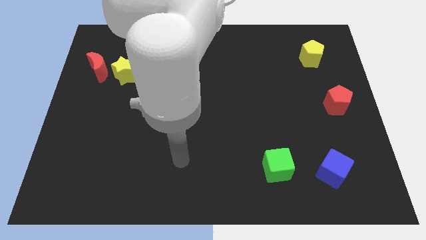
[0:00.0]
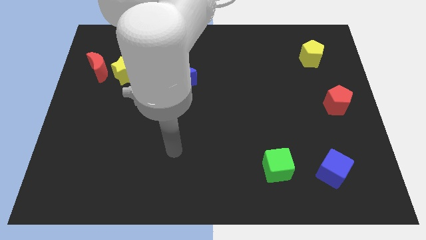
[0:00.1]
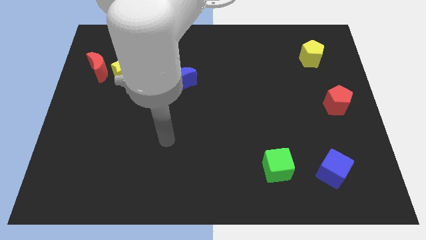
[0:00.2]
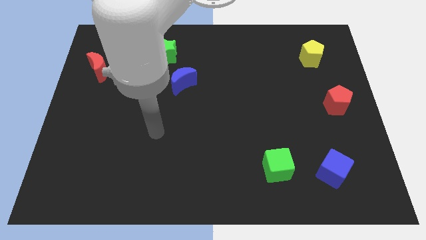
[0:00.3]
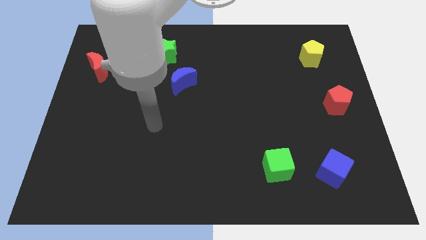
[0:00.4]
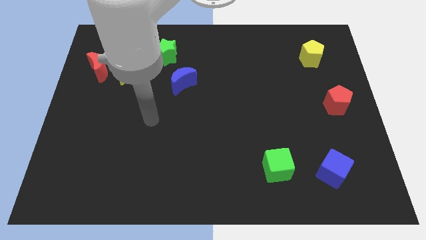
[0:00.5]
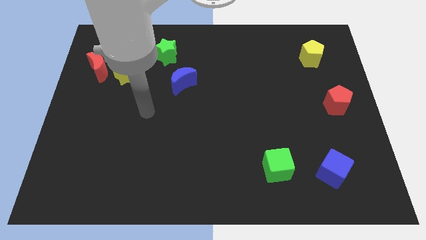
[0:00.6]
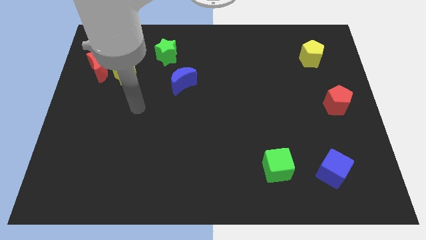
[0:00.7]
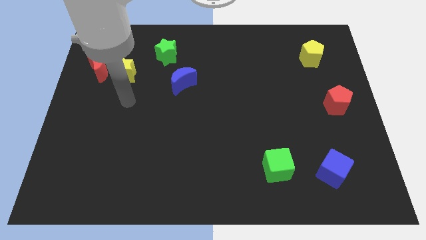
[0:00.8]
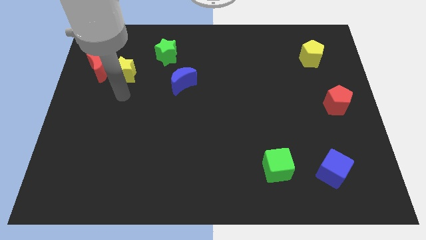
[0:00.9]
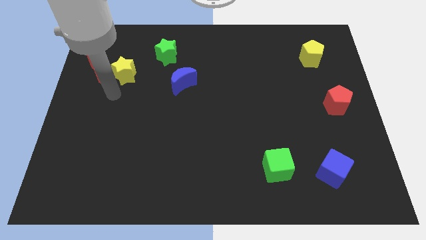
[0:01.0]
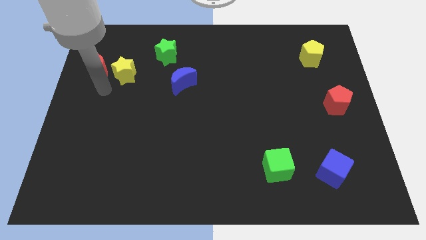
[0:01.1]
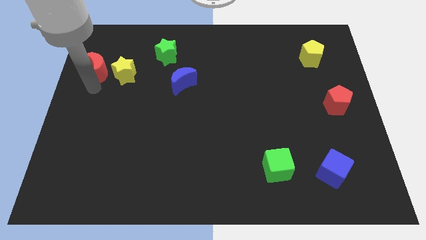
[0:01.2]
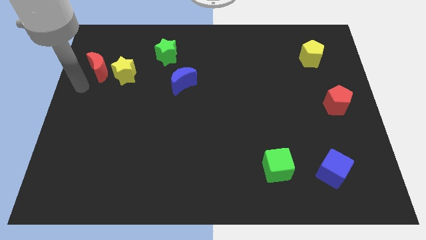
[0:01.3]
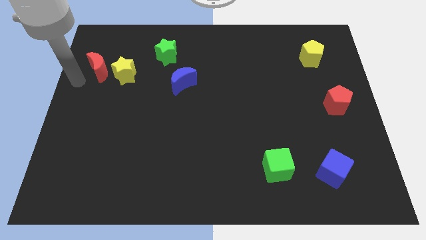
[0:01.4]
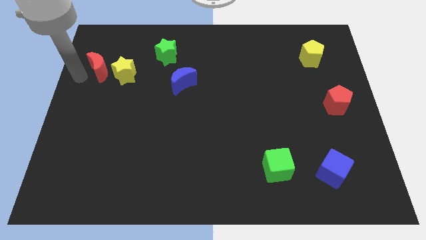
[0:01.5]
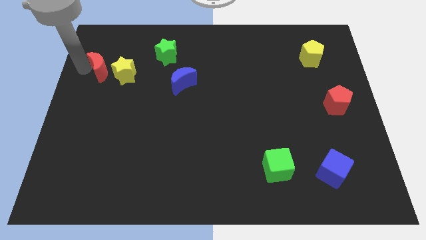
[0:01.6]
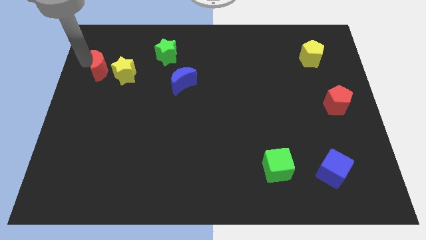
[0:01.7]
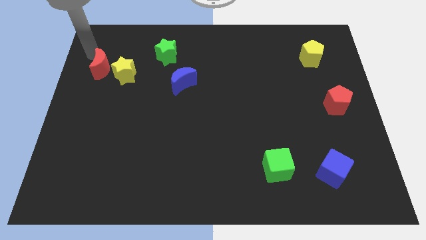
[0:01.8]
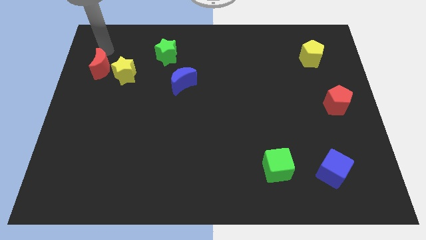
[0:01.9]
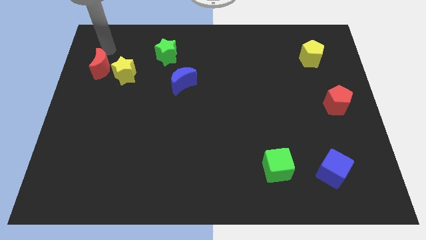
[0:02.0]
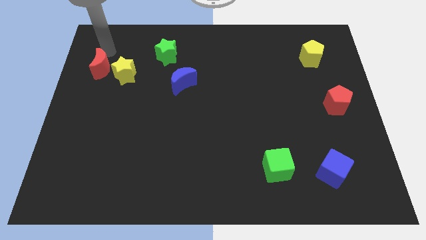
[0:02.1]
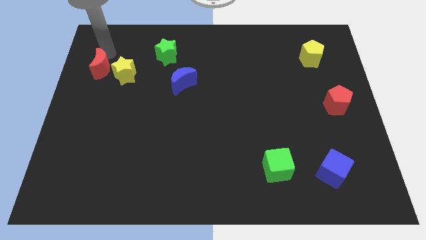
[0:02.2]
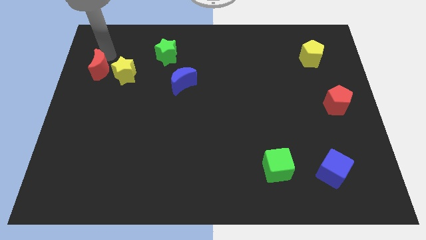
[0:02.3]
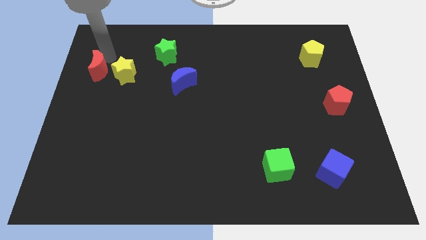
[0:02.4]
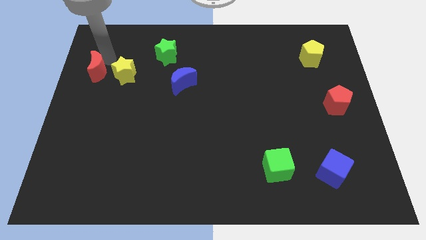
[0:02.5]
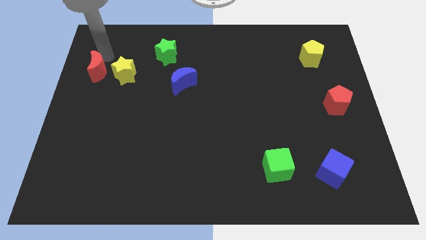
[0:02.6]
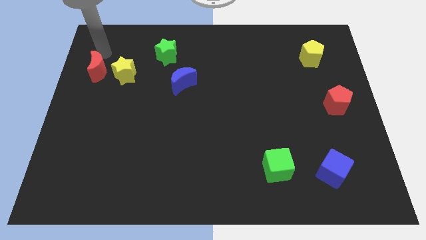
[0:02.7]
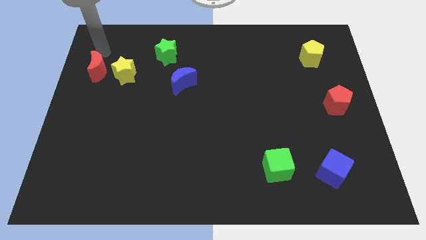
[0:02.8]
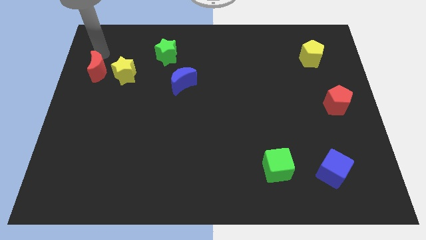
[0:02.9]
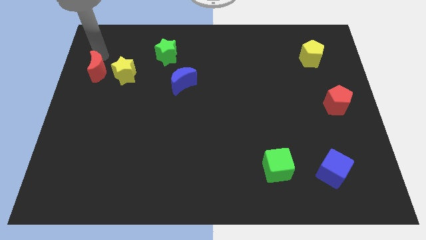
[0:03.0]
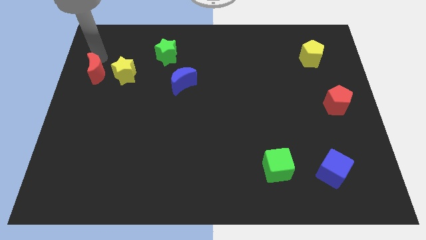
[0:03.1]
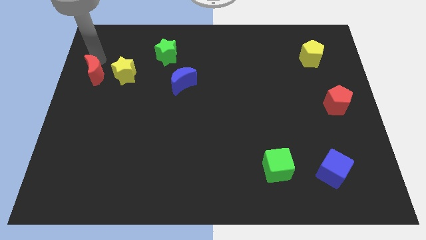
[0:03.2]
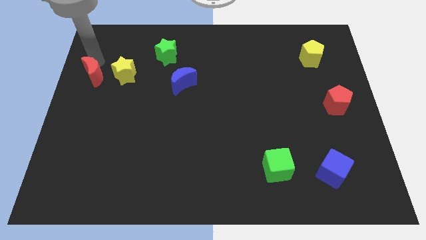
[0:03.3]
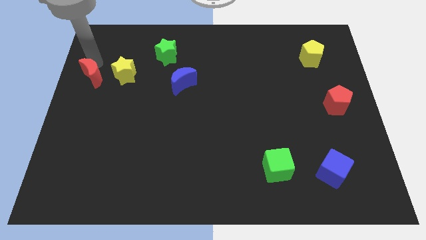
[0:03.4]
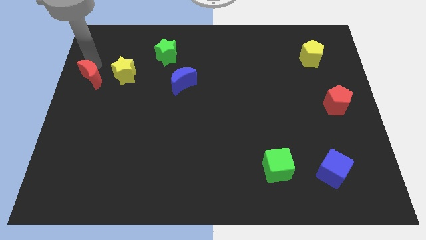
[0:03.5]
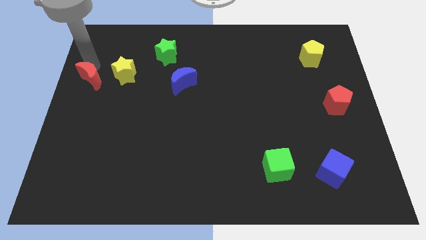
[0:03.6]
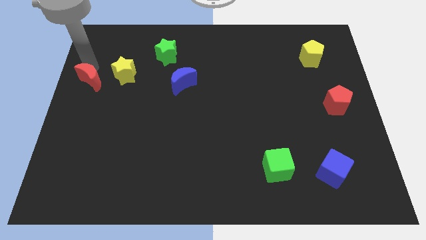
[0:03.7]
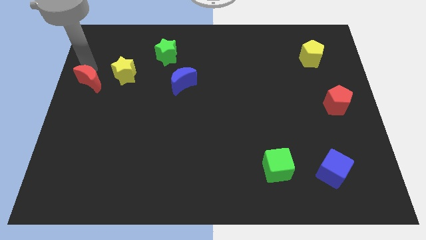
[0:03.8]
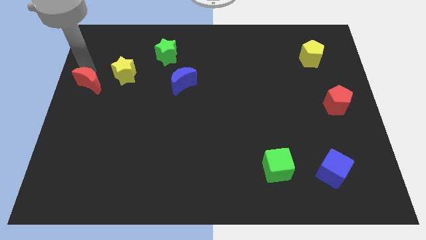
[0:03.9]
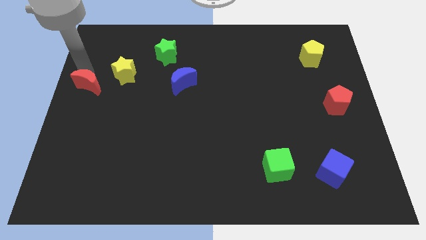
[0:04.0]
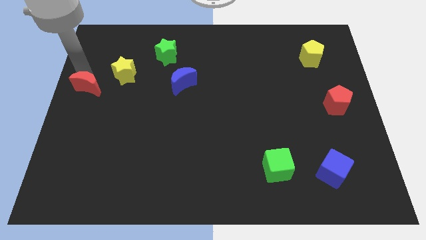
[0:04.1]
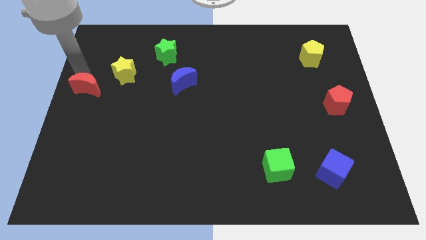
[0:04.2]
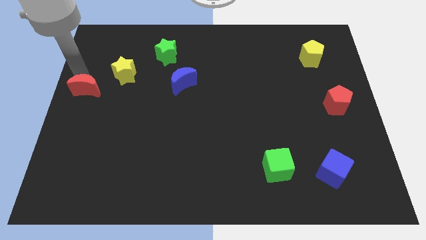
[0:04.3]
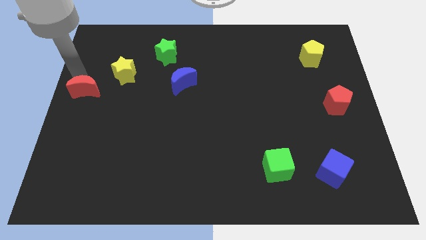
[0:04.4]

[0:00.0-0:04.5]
move the red moon somewhat down

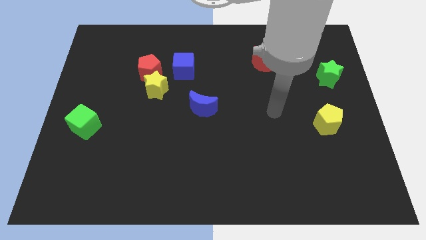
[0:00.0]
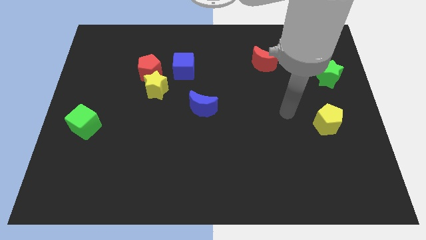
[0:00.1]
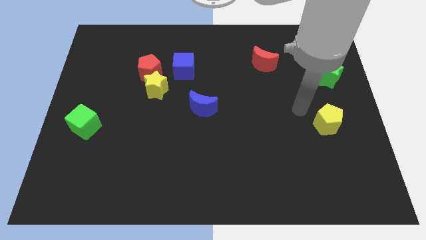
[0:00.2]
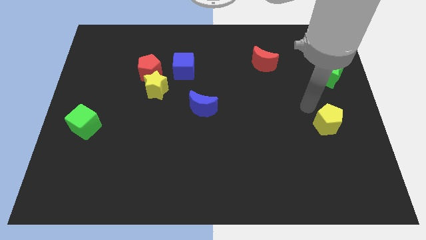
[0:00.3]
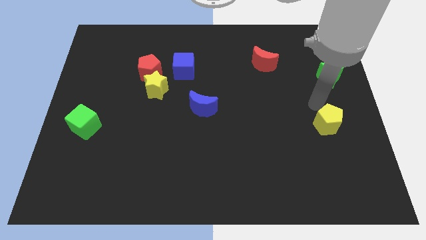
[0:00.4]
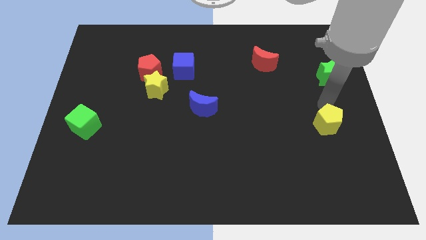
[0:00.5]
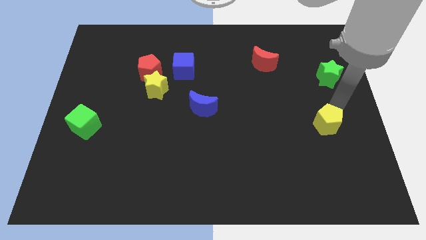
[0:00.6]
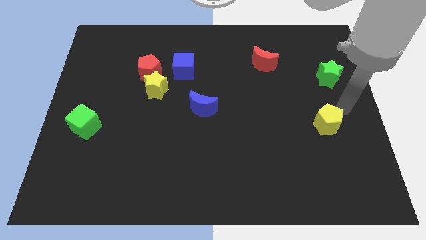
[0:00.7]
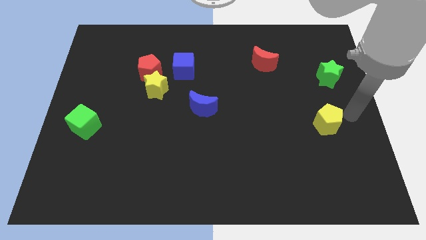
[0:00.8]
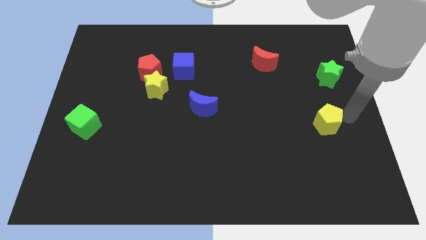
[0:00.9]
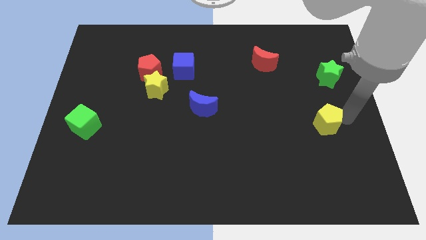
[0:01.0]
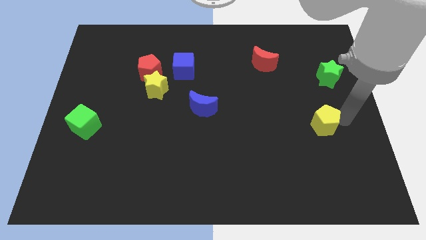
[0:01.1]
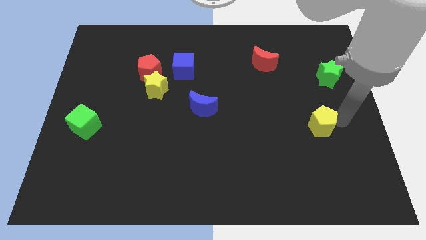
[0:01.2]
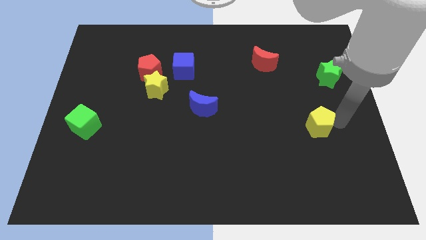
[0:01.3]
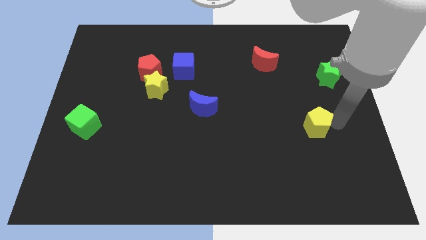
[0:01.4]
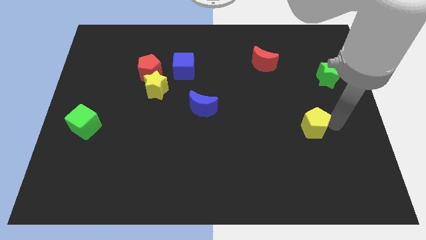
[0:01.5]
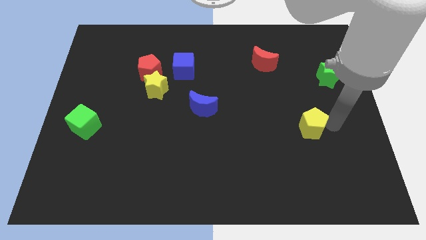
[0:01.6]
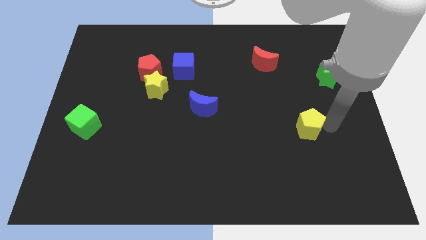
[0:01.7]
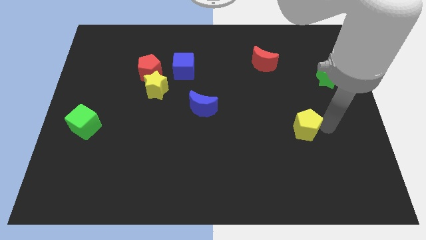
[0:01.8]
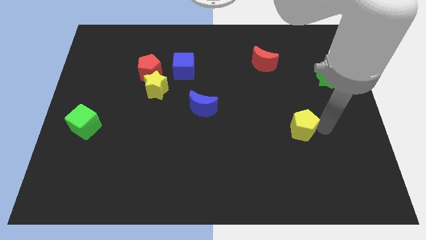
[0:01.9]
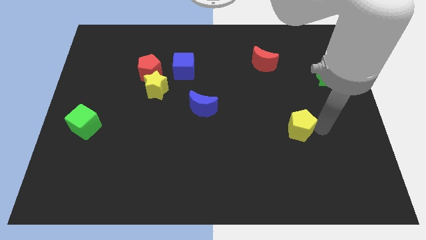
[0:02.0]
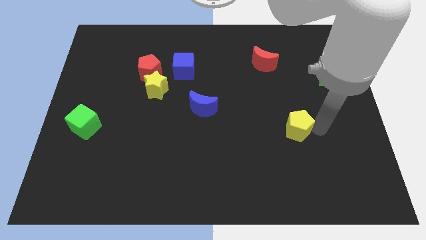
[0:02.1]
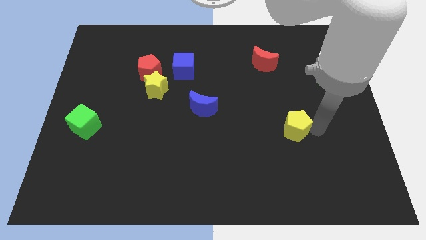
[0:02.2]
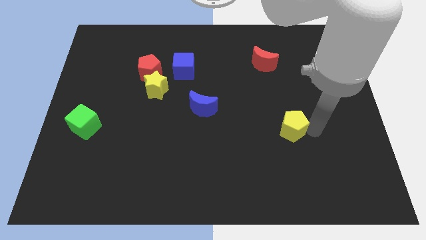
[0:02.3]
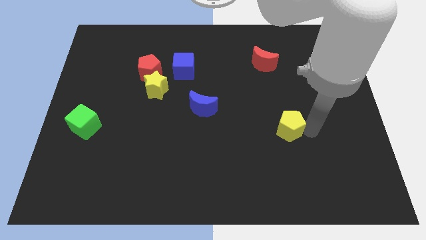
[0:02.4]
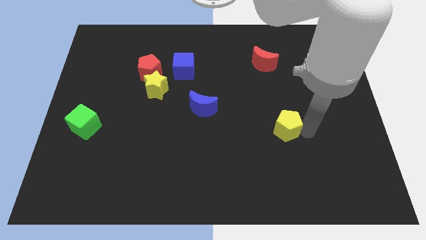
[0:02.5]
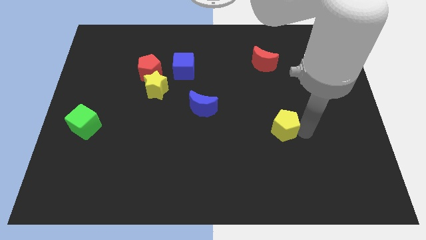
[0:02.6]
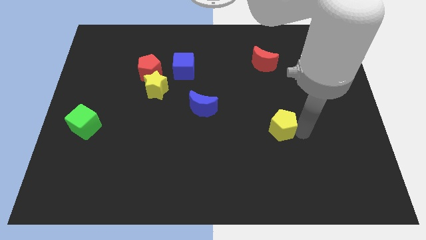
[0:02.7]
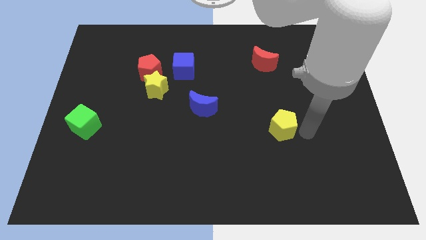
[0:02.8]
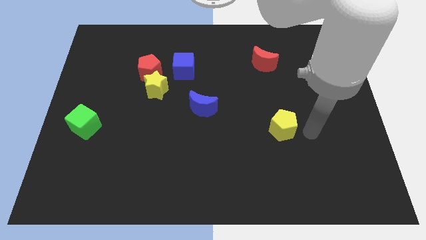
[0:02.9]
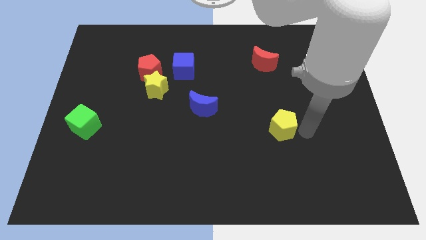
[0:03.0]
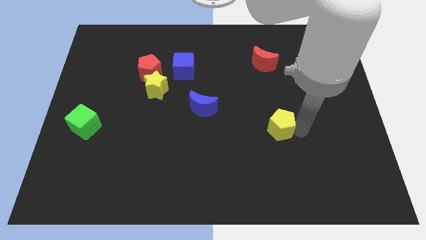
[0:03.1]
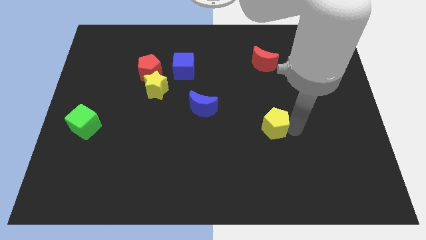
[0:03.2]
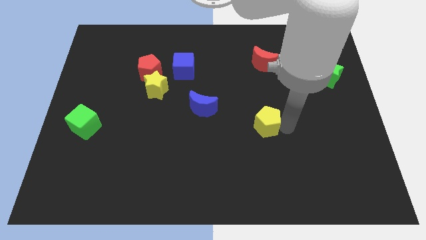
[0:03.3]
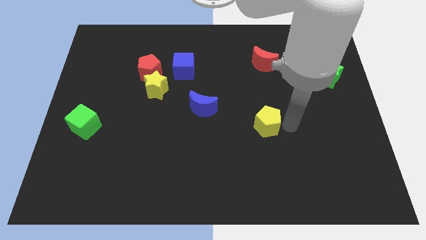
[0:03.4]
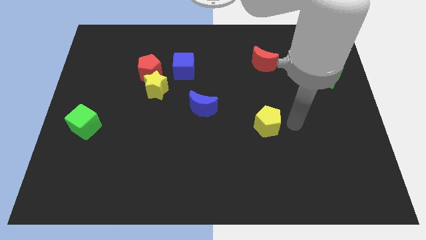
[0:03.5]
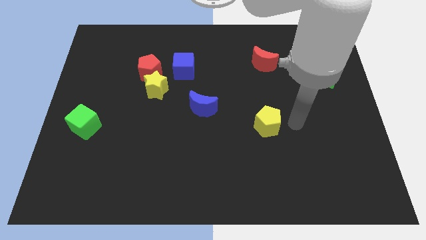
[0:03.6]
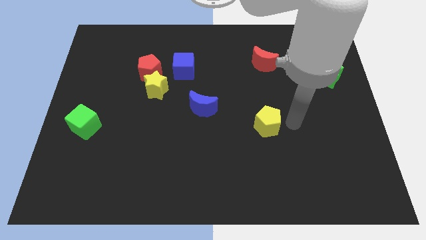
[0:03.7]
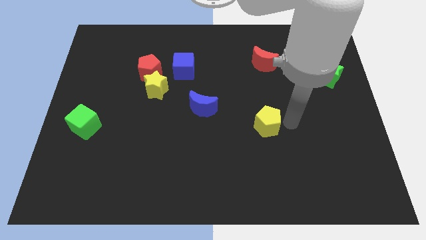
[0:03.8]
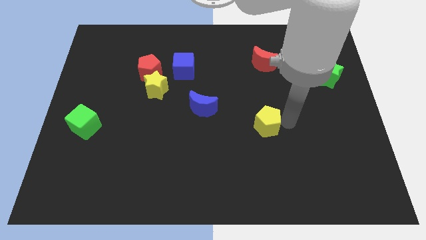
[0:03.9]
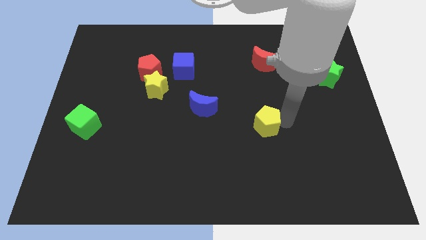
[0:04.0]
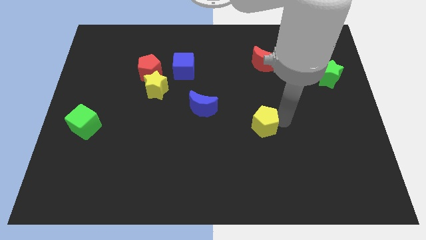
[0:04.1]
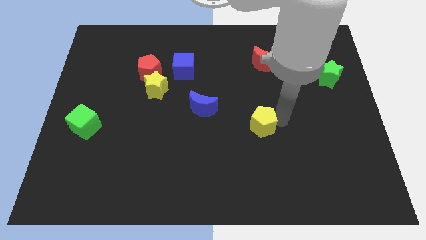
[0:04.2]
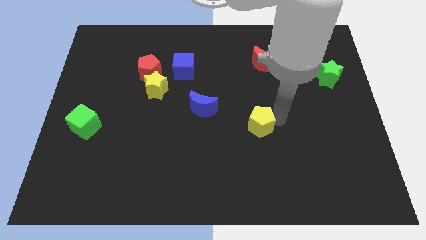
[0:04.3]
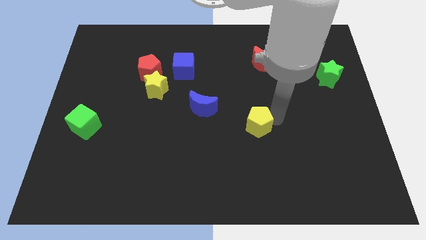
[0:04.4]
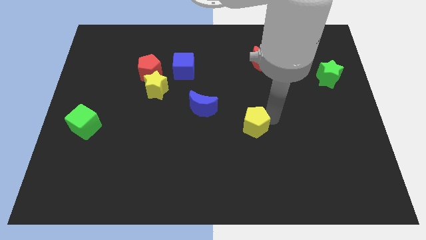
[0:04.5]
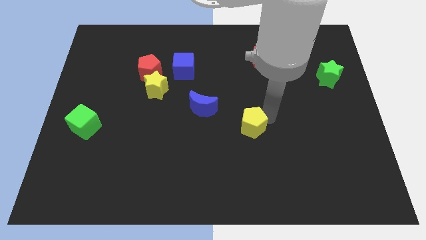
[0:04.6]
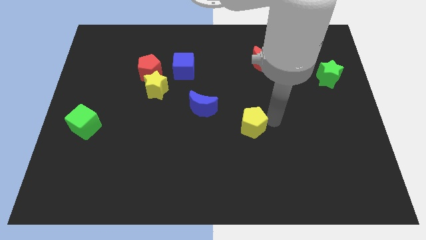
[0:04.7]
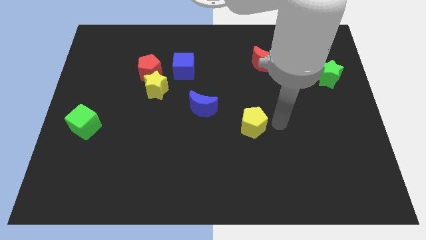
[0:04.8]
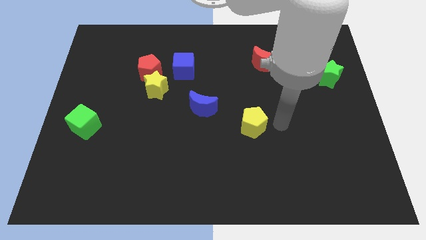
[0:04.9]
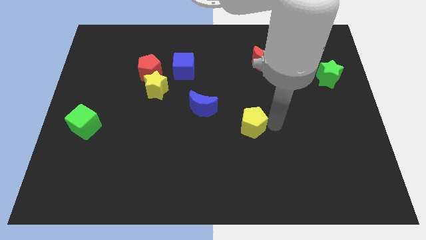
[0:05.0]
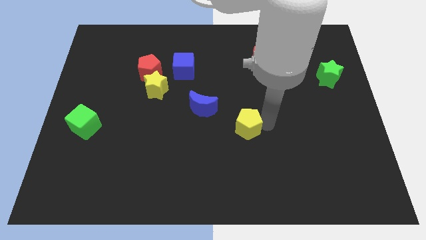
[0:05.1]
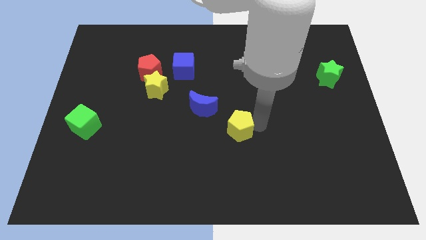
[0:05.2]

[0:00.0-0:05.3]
slide the yellow pentagon to the left
